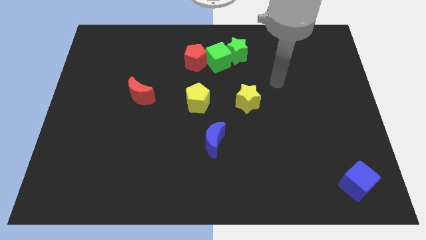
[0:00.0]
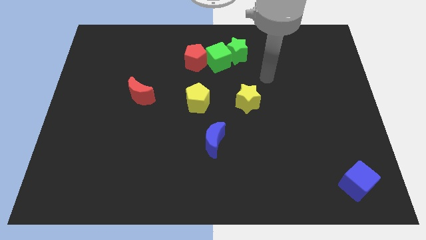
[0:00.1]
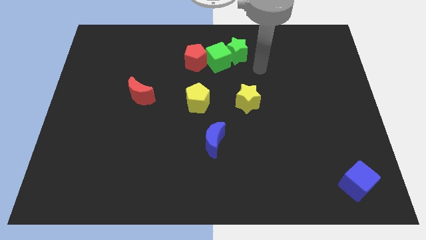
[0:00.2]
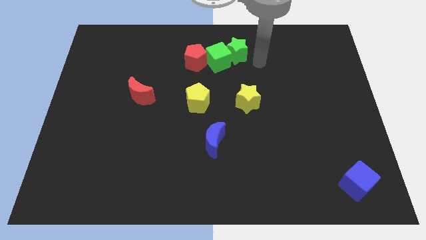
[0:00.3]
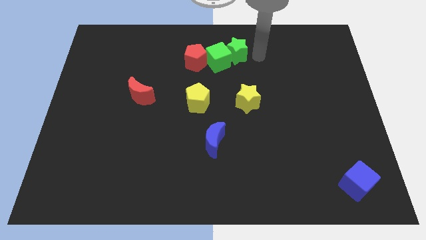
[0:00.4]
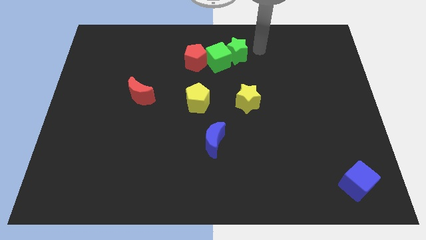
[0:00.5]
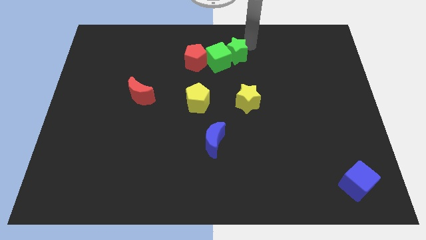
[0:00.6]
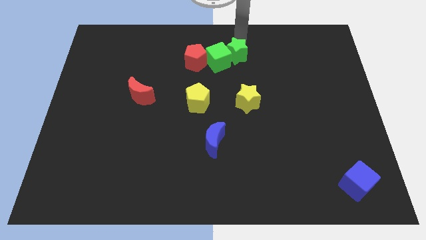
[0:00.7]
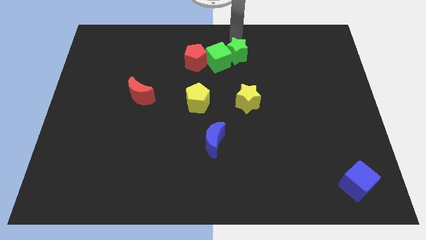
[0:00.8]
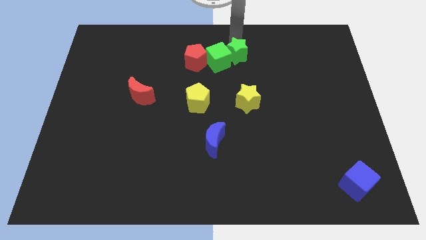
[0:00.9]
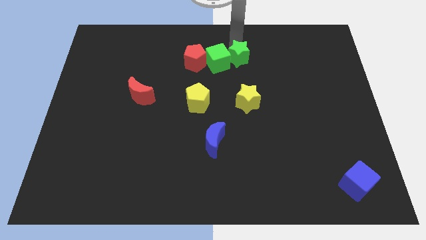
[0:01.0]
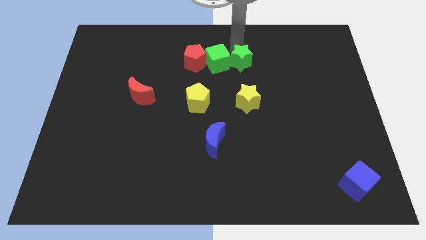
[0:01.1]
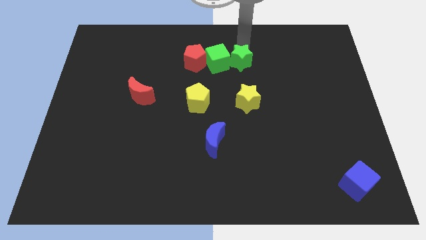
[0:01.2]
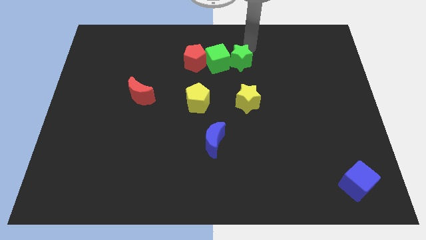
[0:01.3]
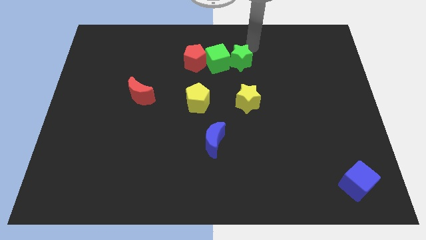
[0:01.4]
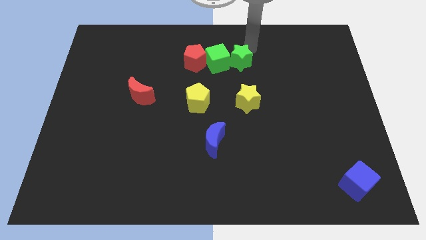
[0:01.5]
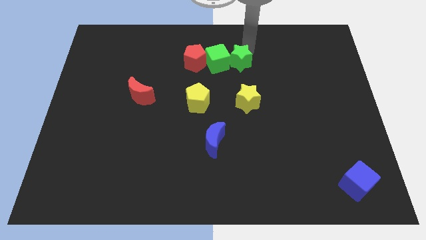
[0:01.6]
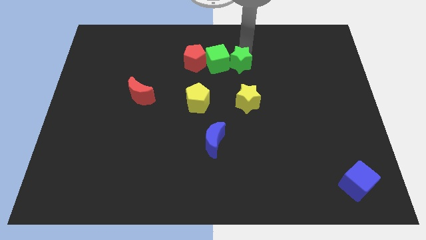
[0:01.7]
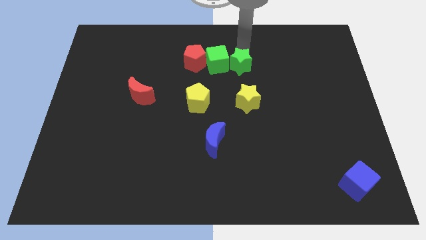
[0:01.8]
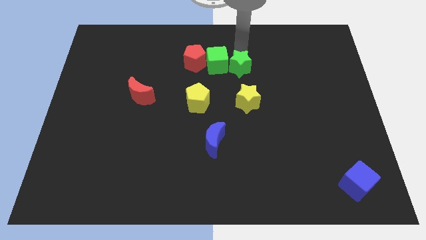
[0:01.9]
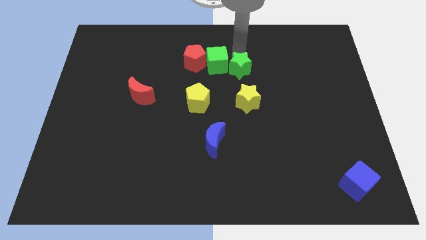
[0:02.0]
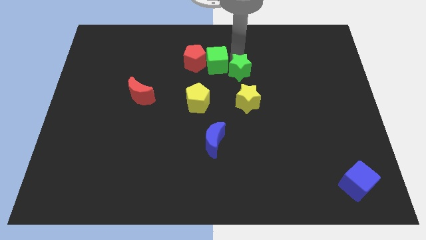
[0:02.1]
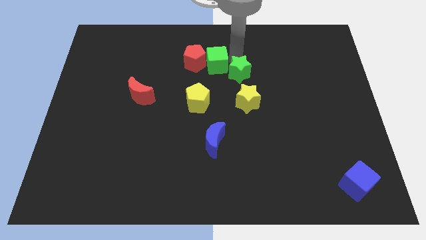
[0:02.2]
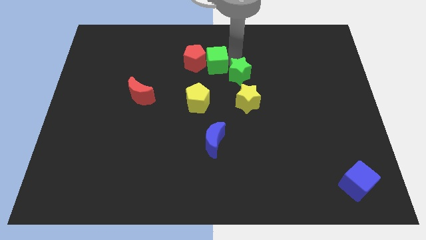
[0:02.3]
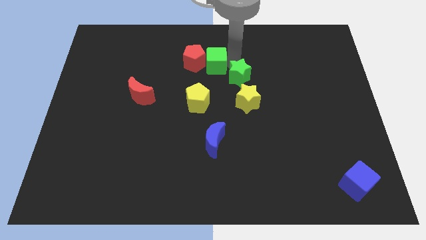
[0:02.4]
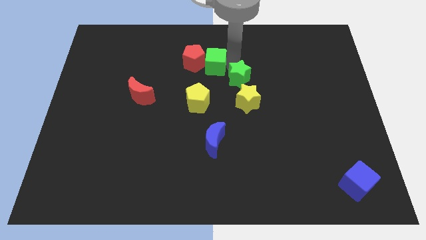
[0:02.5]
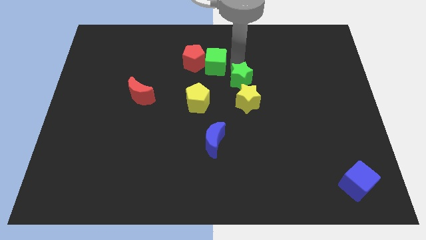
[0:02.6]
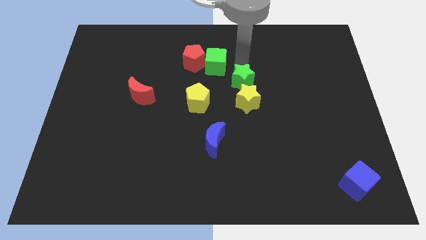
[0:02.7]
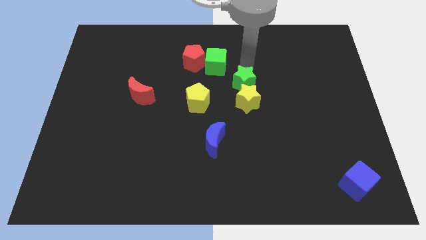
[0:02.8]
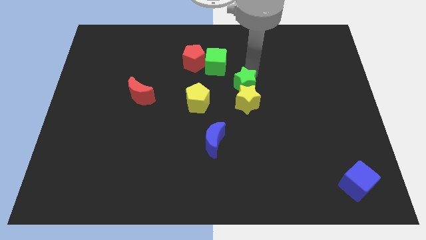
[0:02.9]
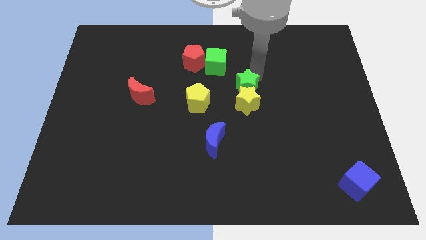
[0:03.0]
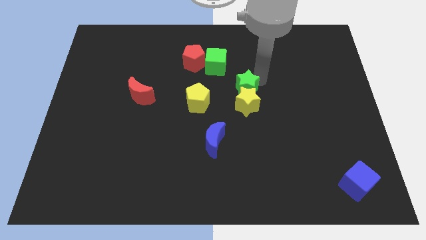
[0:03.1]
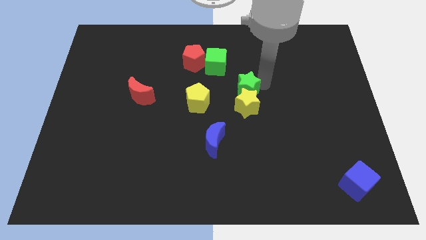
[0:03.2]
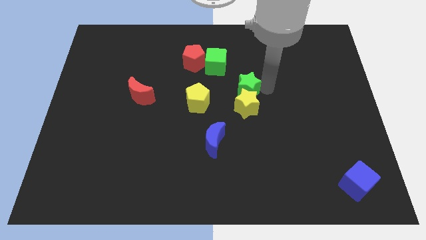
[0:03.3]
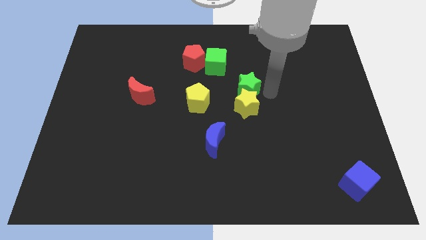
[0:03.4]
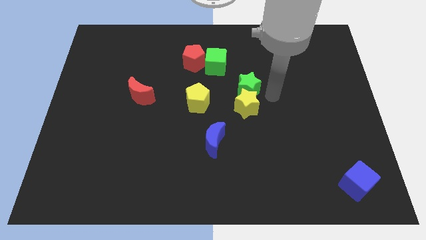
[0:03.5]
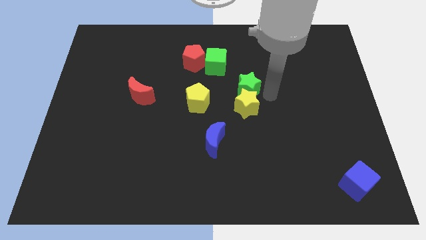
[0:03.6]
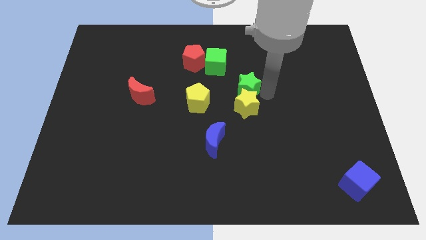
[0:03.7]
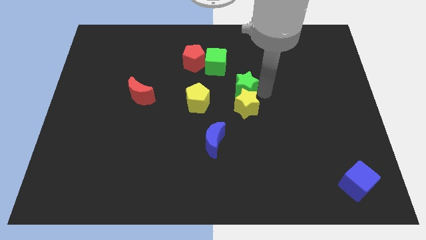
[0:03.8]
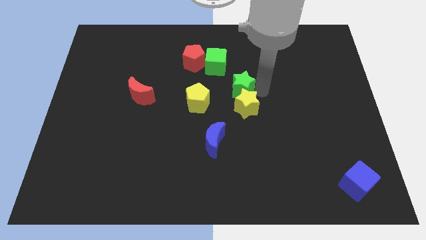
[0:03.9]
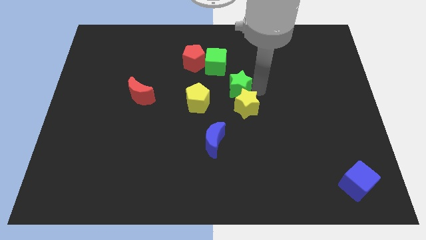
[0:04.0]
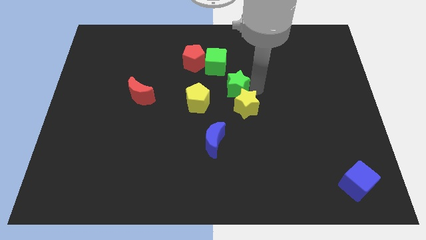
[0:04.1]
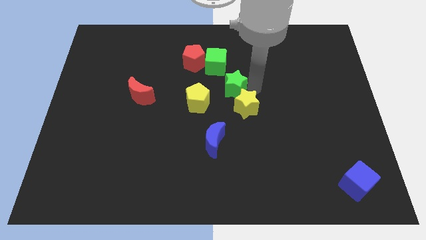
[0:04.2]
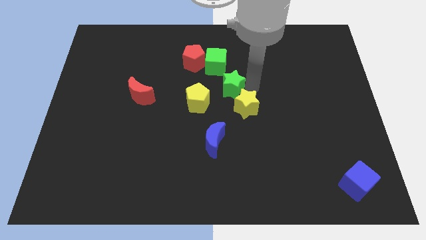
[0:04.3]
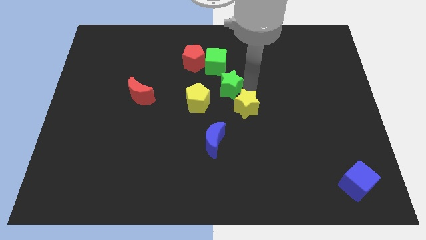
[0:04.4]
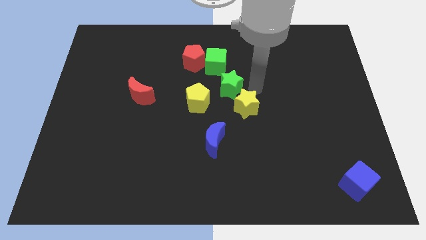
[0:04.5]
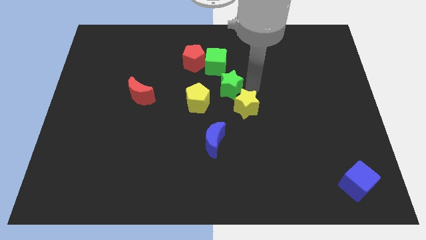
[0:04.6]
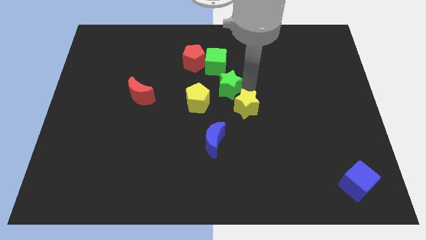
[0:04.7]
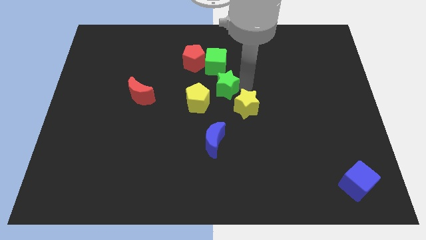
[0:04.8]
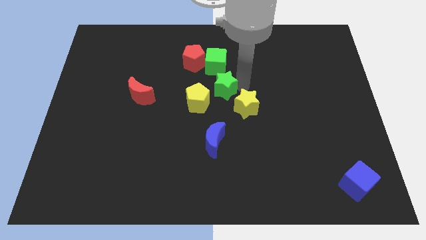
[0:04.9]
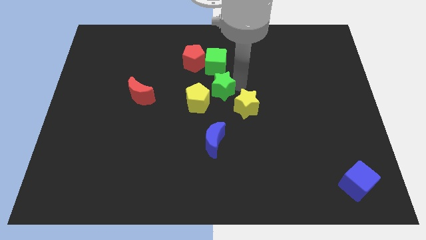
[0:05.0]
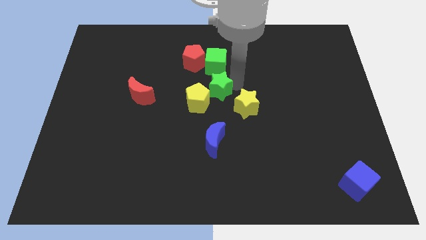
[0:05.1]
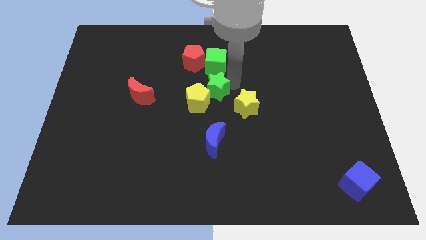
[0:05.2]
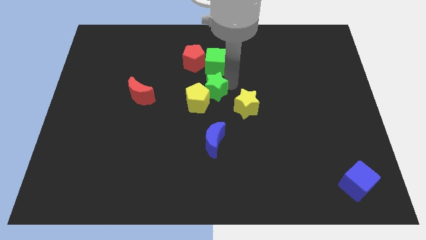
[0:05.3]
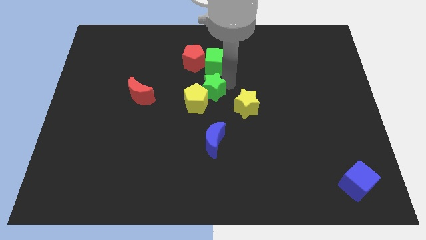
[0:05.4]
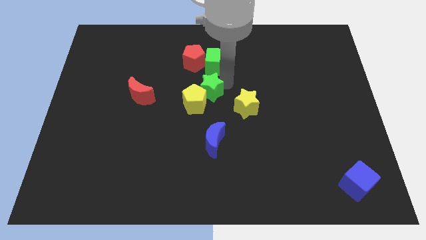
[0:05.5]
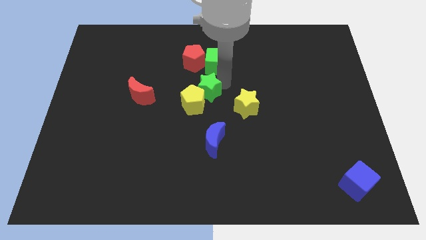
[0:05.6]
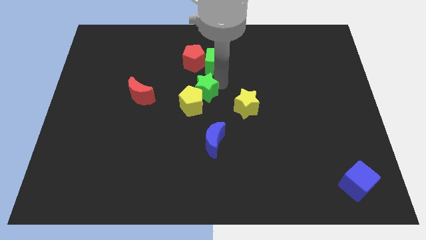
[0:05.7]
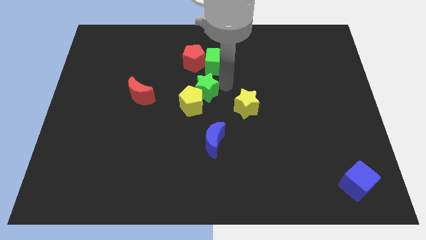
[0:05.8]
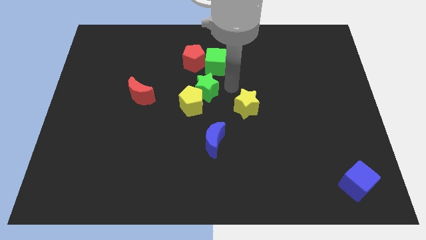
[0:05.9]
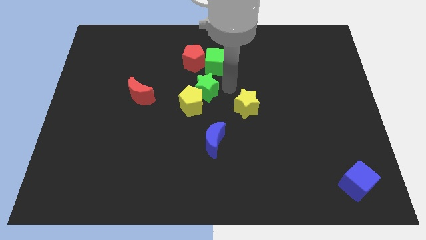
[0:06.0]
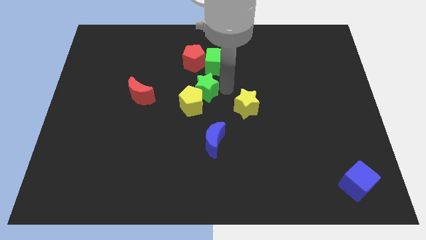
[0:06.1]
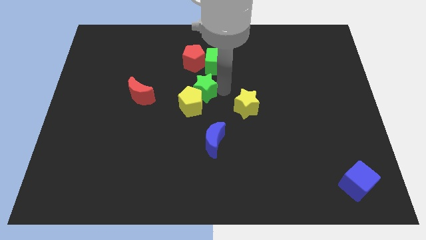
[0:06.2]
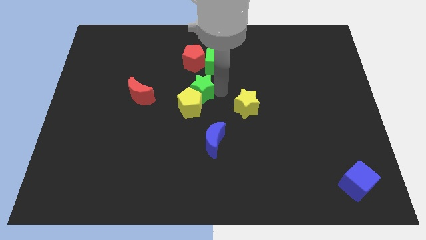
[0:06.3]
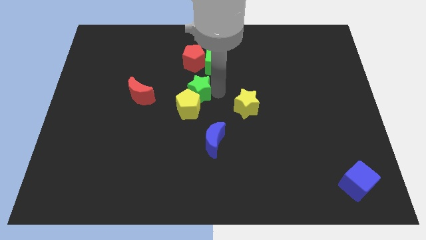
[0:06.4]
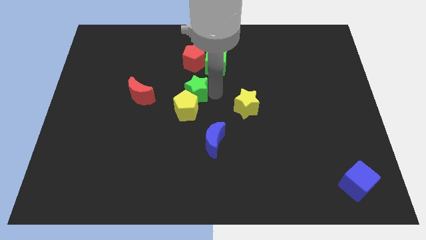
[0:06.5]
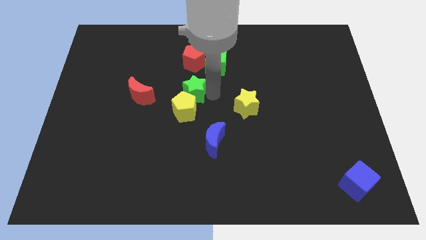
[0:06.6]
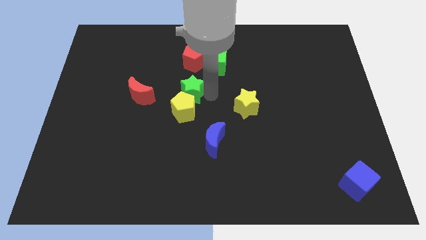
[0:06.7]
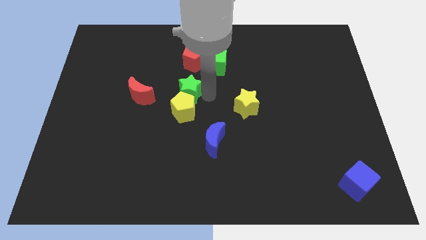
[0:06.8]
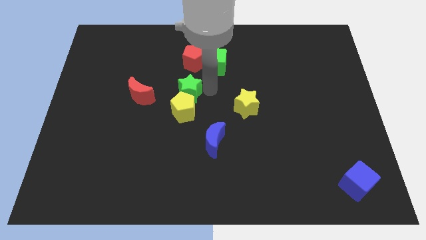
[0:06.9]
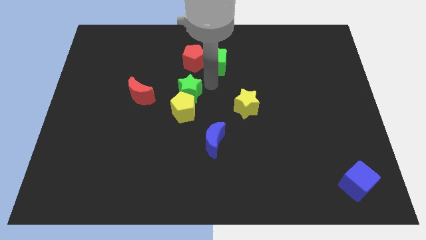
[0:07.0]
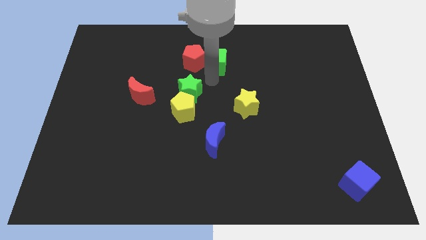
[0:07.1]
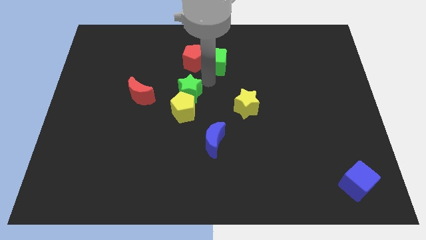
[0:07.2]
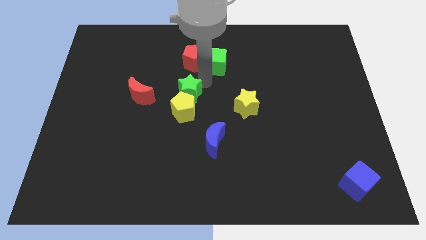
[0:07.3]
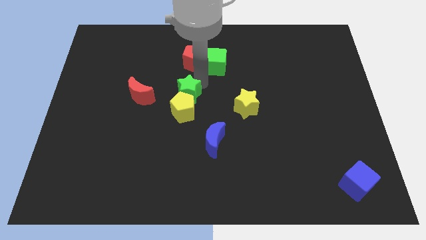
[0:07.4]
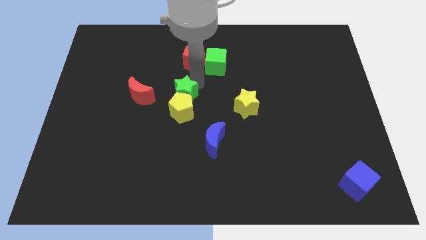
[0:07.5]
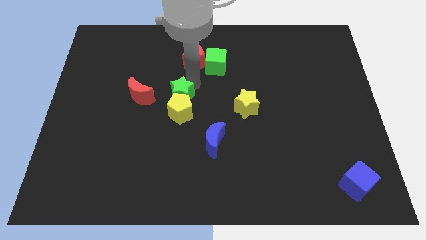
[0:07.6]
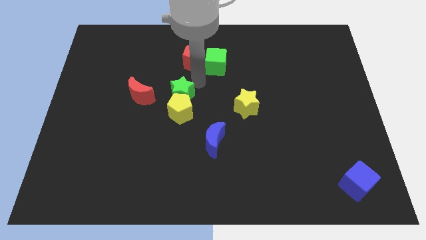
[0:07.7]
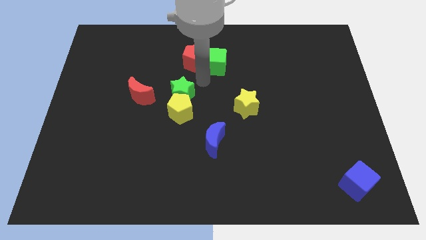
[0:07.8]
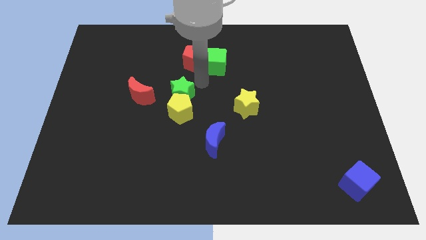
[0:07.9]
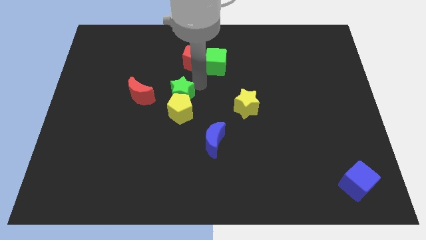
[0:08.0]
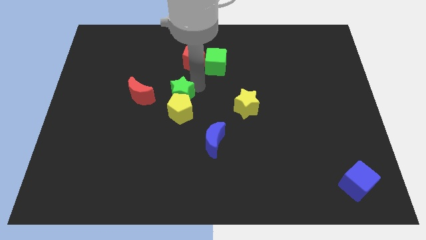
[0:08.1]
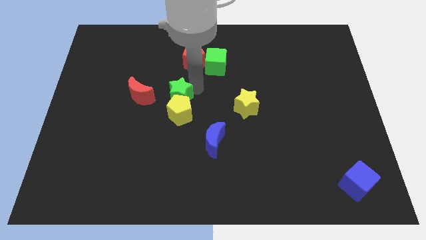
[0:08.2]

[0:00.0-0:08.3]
push the green star down and then left
